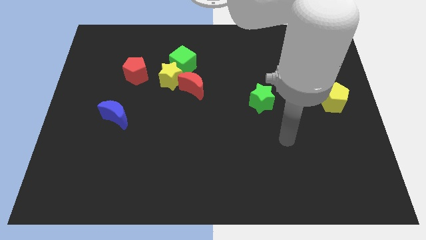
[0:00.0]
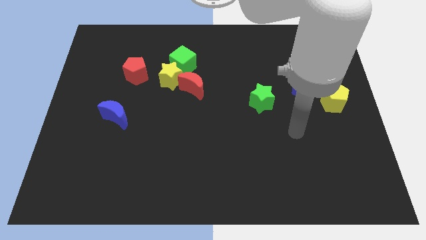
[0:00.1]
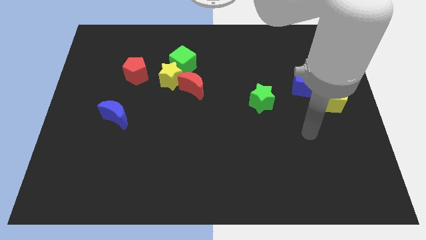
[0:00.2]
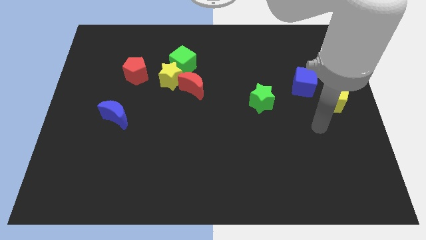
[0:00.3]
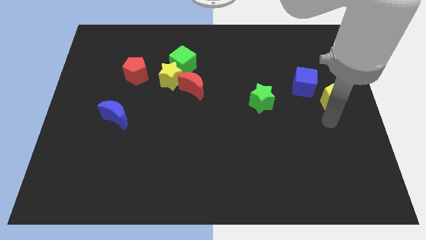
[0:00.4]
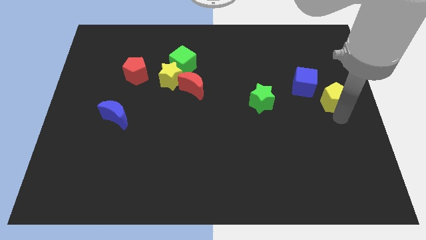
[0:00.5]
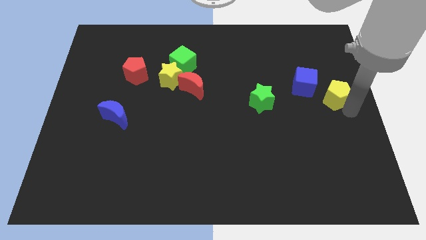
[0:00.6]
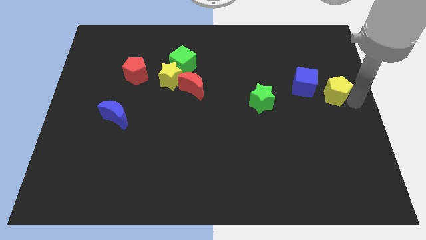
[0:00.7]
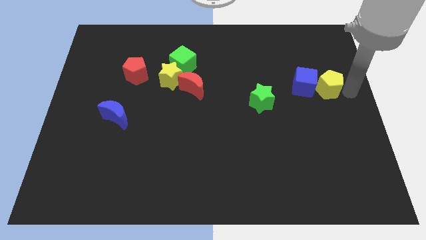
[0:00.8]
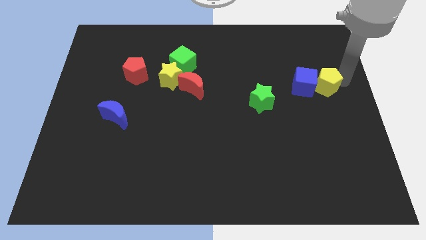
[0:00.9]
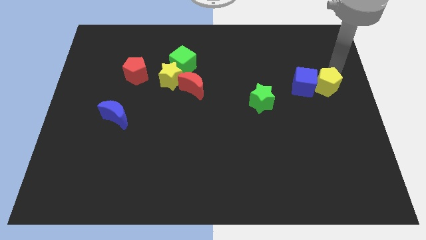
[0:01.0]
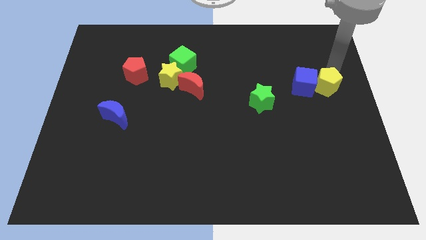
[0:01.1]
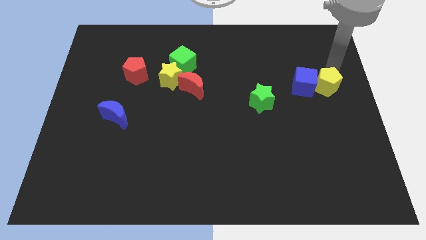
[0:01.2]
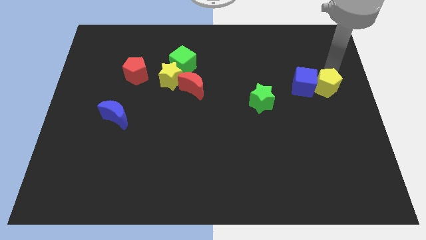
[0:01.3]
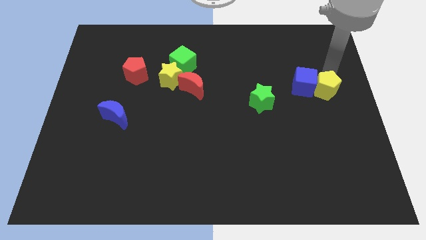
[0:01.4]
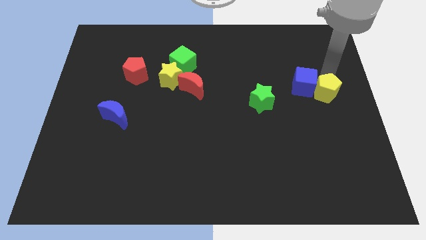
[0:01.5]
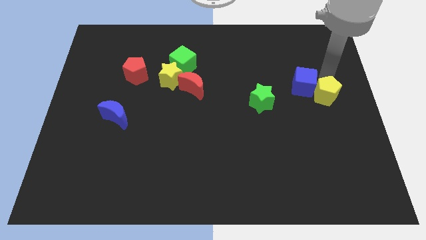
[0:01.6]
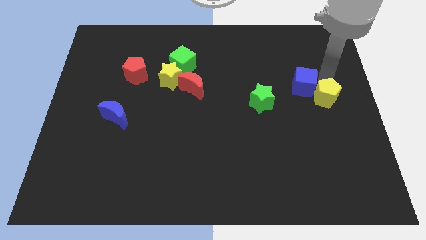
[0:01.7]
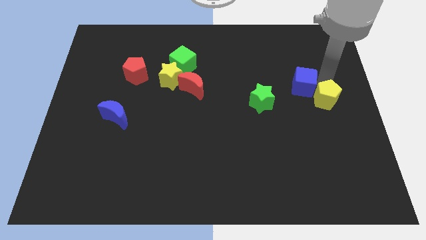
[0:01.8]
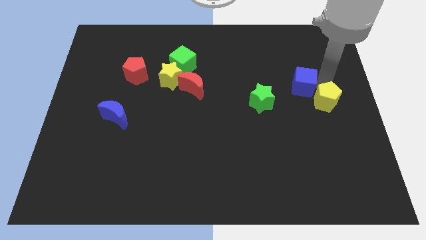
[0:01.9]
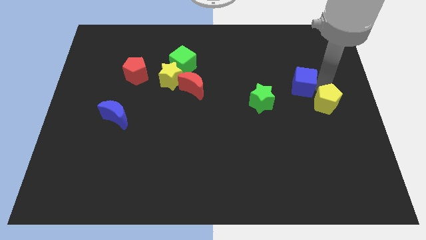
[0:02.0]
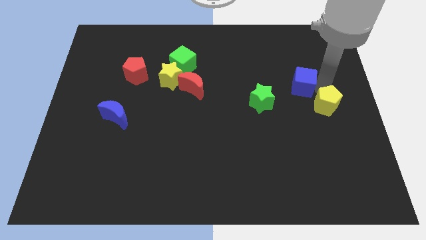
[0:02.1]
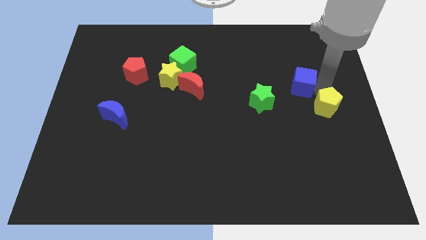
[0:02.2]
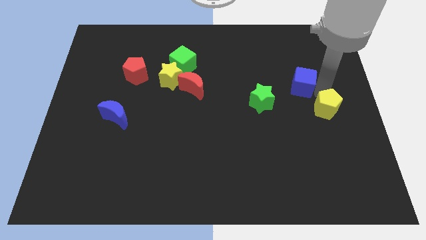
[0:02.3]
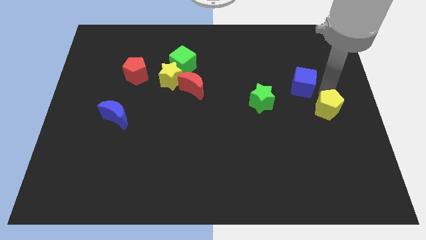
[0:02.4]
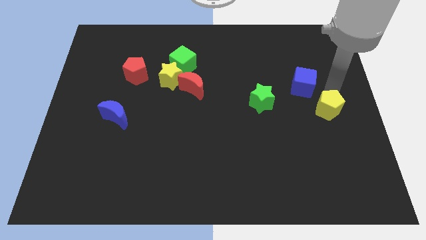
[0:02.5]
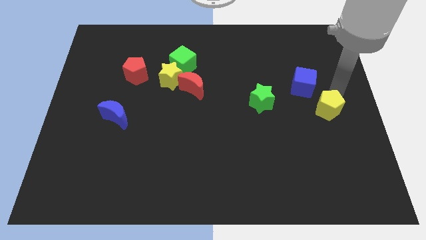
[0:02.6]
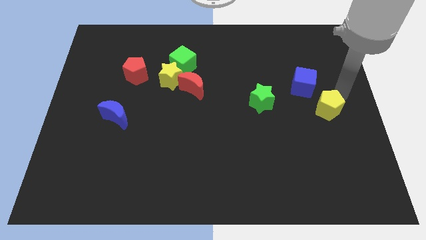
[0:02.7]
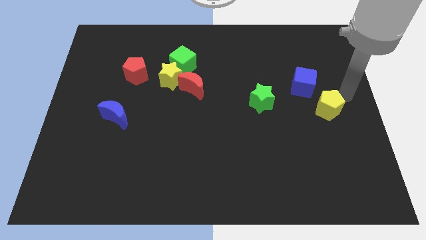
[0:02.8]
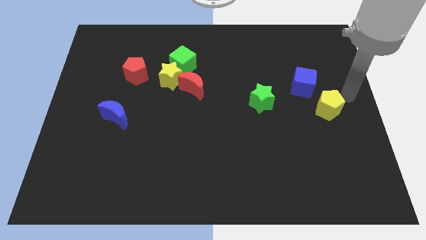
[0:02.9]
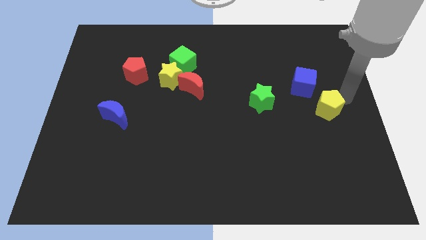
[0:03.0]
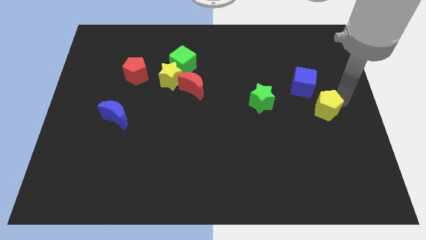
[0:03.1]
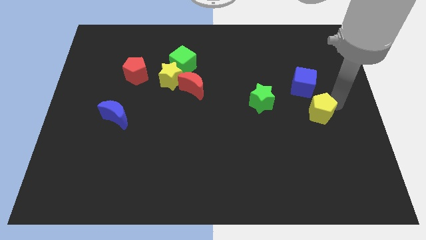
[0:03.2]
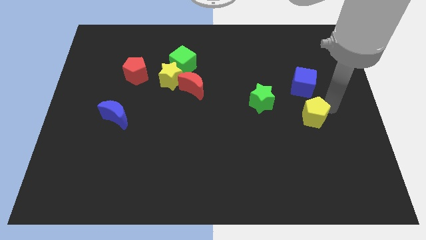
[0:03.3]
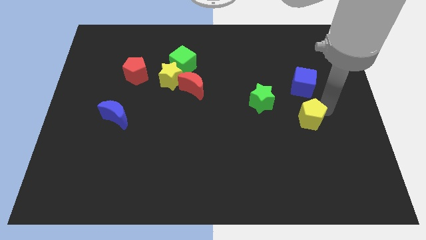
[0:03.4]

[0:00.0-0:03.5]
slide the yellow pentagon slightly down and to the left diagonally

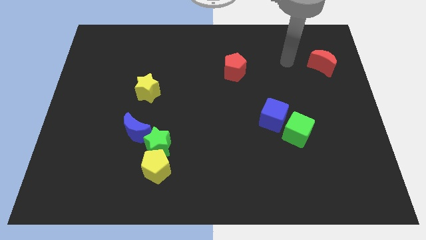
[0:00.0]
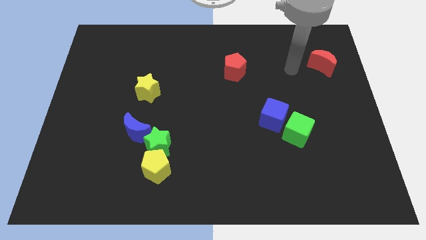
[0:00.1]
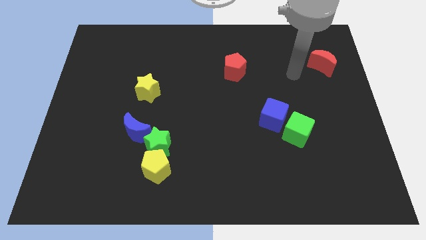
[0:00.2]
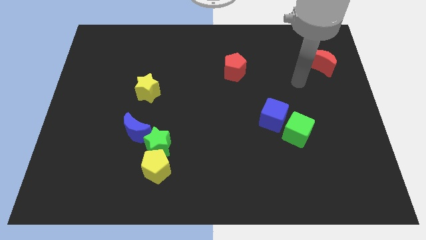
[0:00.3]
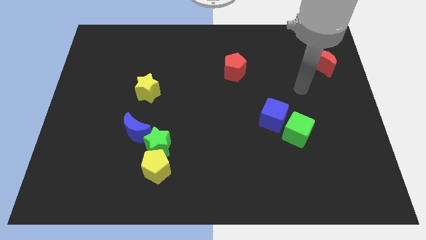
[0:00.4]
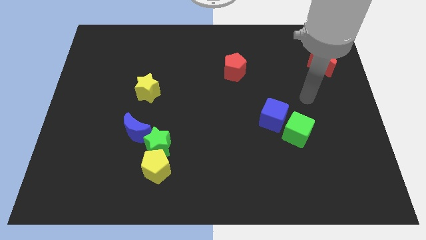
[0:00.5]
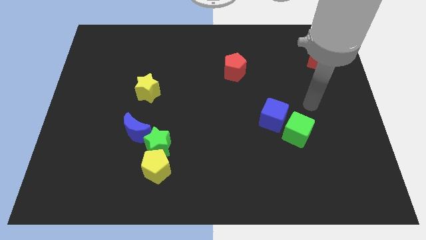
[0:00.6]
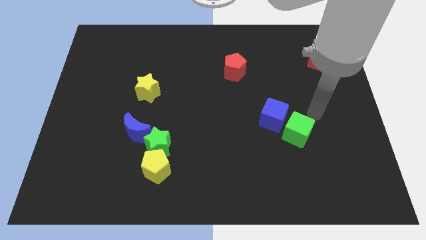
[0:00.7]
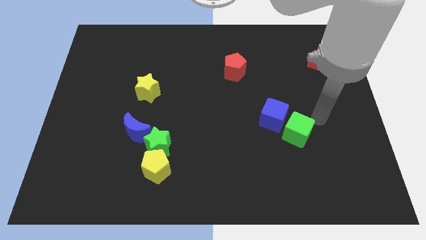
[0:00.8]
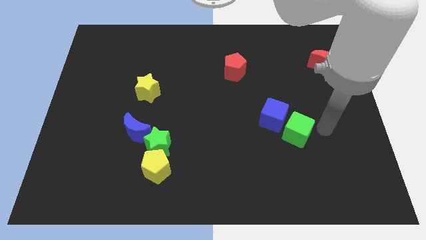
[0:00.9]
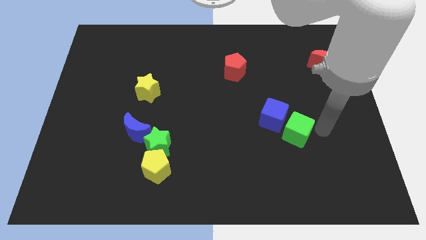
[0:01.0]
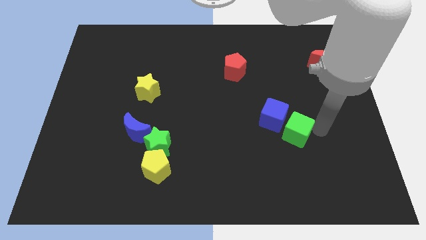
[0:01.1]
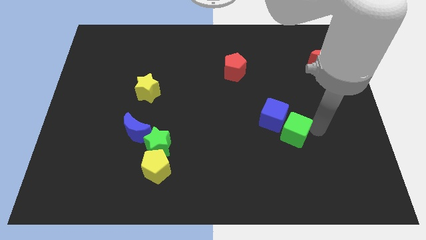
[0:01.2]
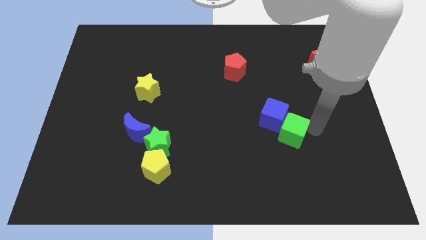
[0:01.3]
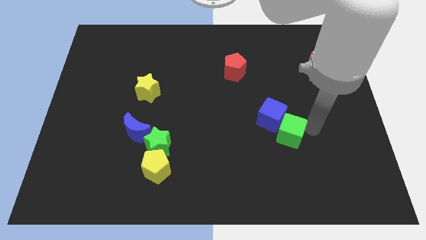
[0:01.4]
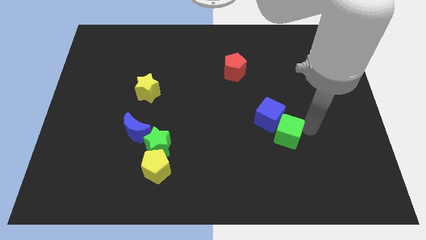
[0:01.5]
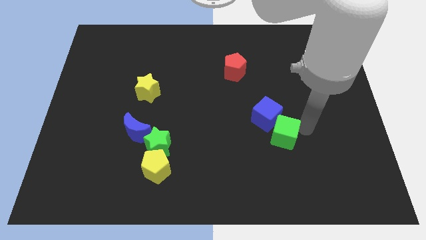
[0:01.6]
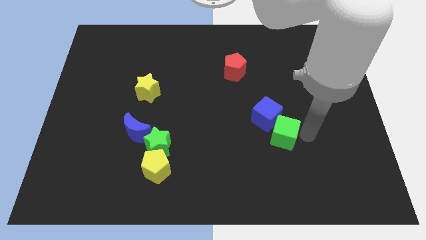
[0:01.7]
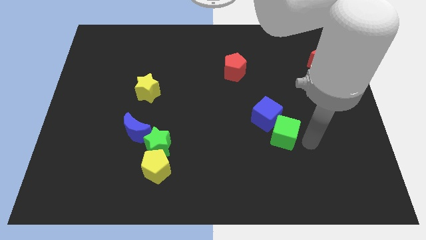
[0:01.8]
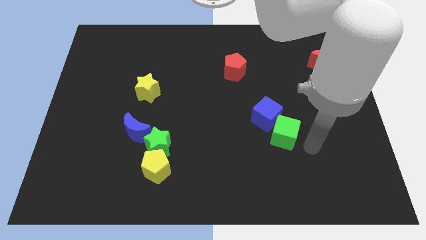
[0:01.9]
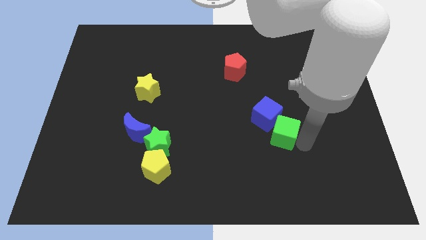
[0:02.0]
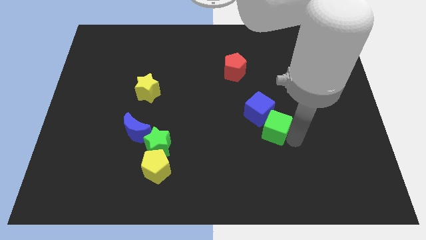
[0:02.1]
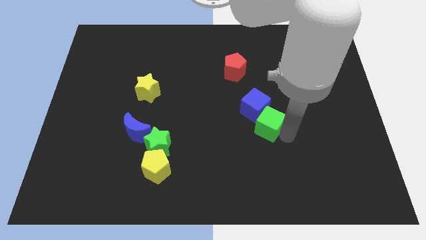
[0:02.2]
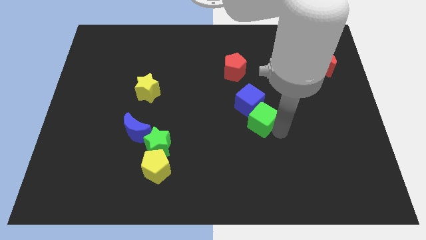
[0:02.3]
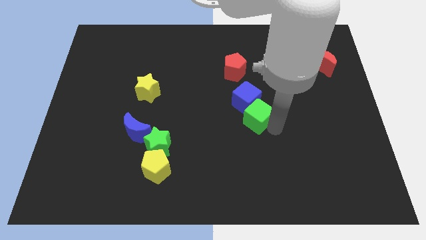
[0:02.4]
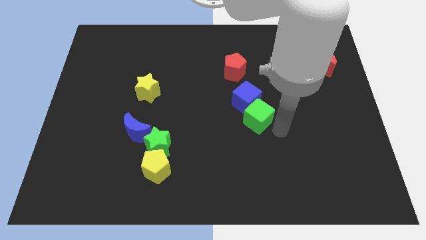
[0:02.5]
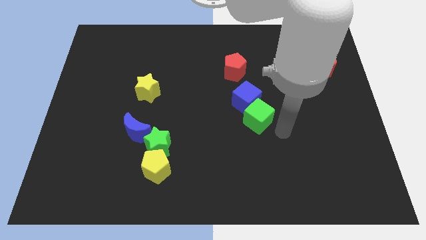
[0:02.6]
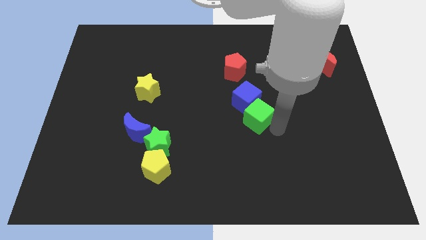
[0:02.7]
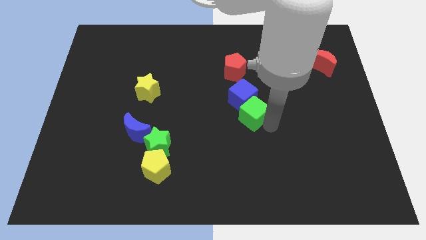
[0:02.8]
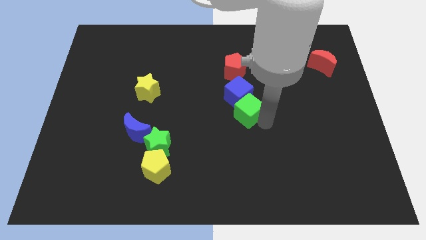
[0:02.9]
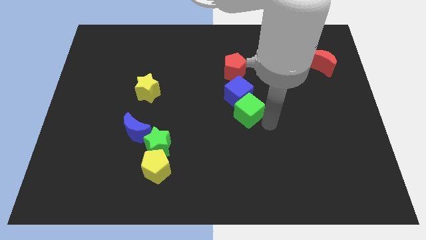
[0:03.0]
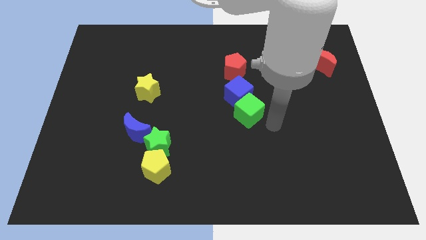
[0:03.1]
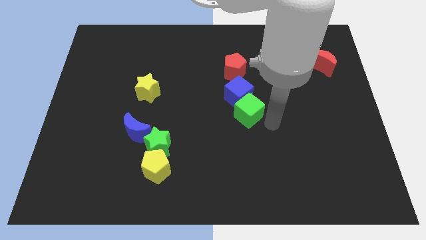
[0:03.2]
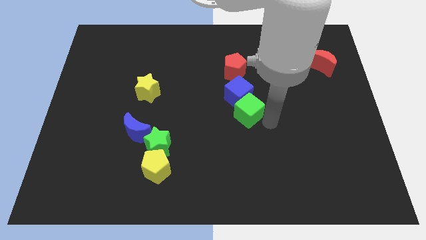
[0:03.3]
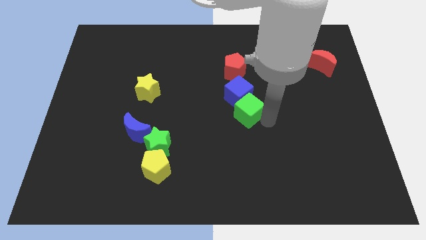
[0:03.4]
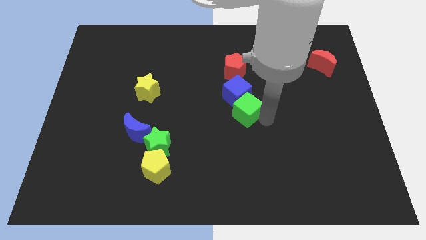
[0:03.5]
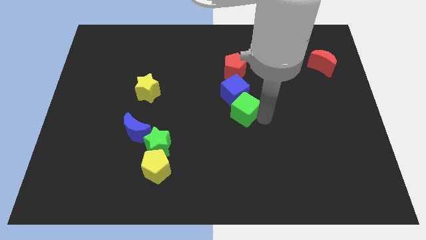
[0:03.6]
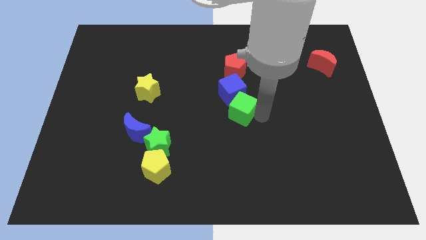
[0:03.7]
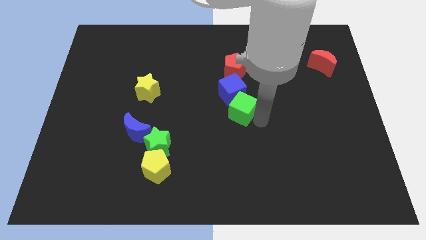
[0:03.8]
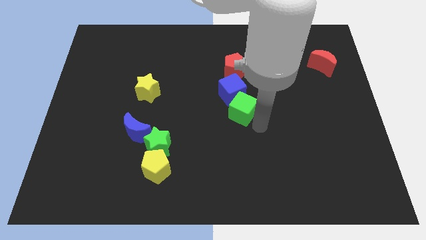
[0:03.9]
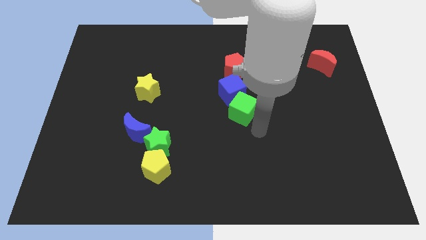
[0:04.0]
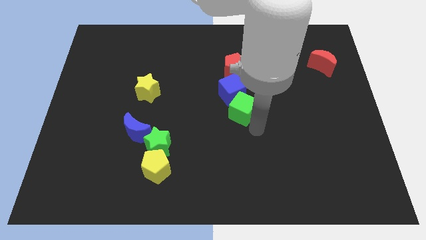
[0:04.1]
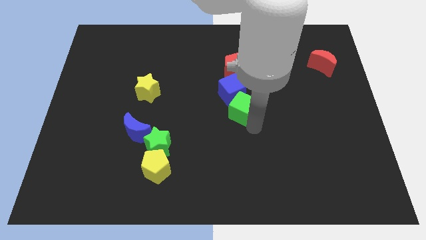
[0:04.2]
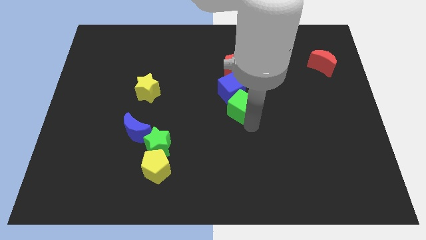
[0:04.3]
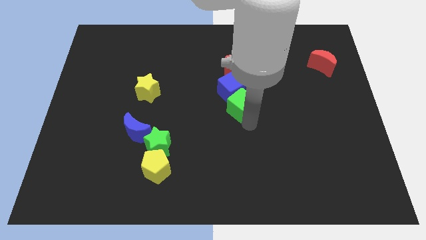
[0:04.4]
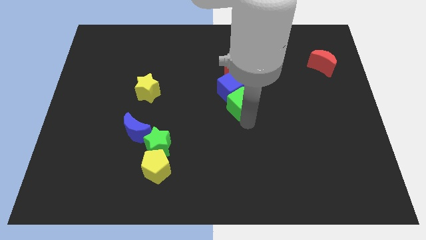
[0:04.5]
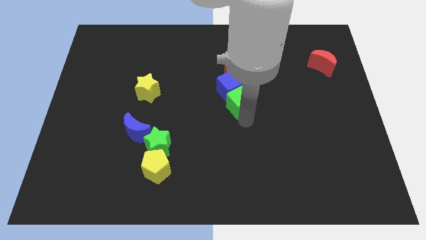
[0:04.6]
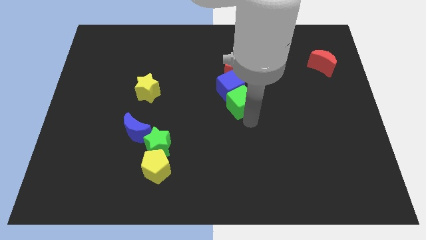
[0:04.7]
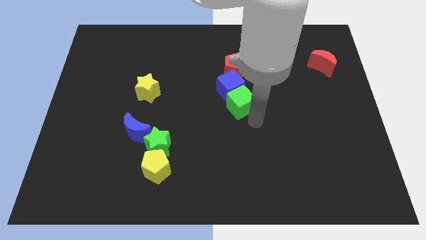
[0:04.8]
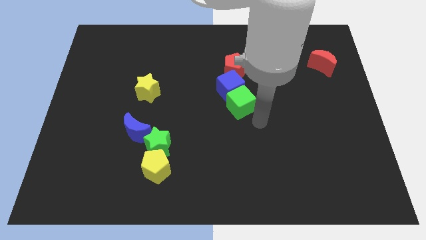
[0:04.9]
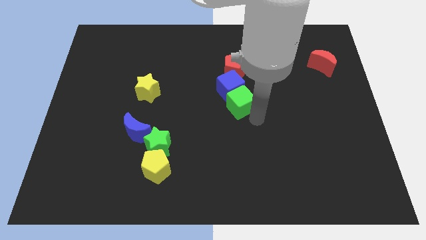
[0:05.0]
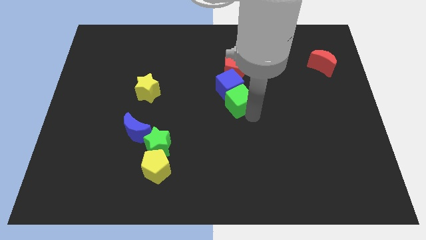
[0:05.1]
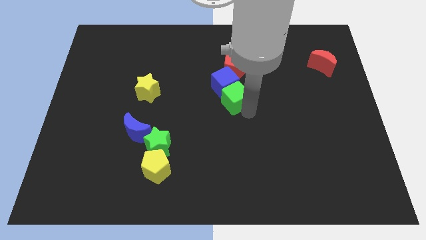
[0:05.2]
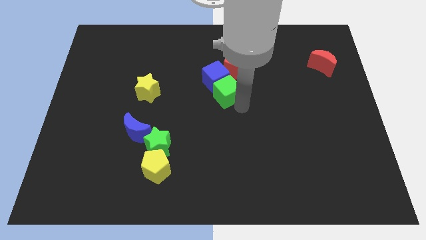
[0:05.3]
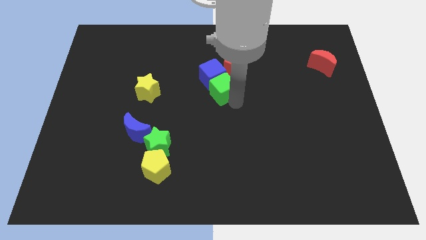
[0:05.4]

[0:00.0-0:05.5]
slide the green cube diagonally upwards and left
